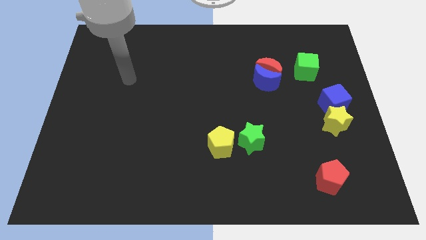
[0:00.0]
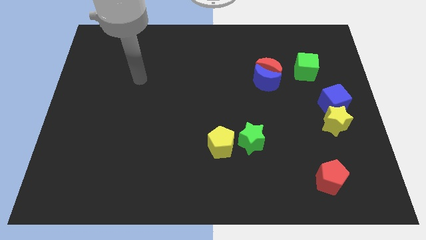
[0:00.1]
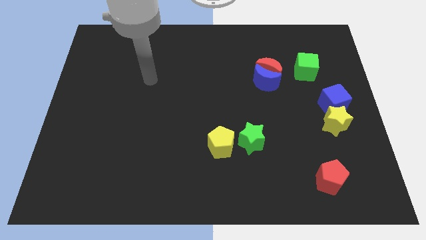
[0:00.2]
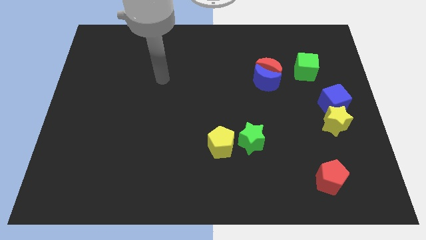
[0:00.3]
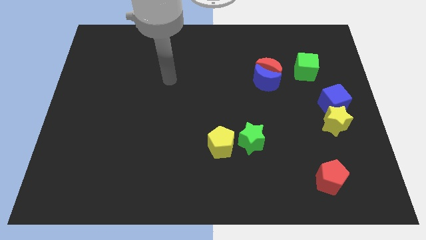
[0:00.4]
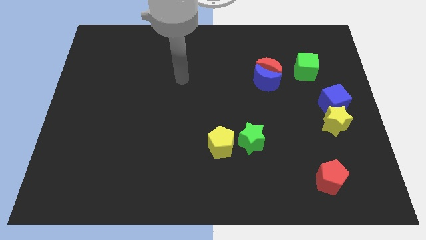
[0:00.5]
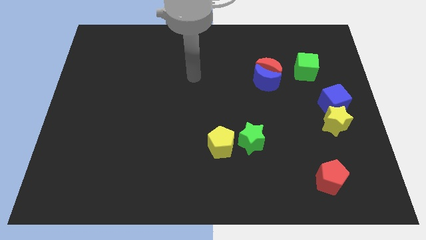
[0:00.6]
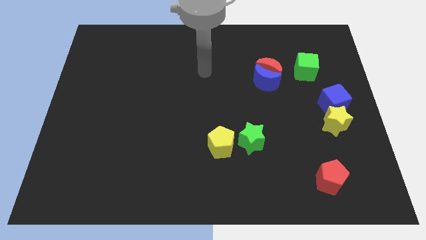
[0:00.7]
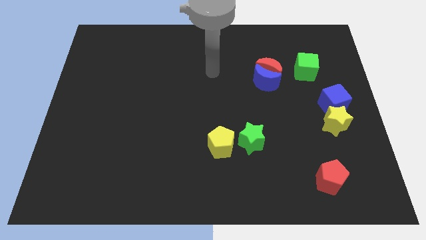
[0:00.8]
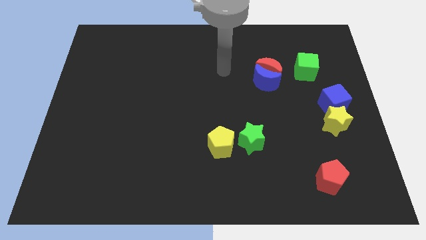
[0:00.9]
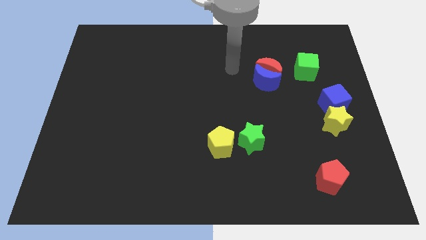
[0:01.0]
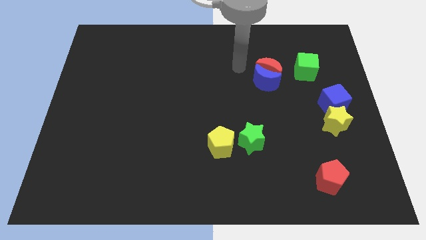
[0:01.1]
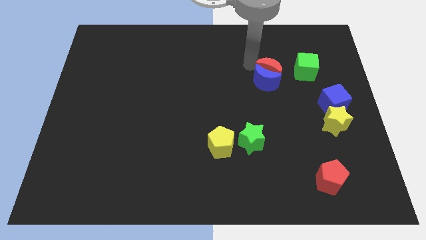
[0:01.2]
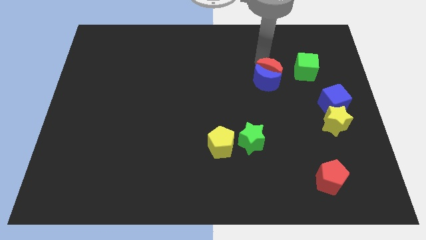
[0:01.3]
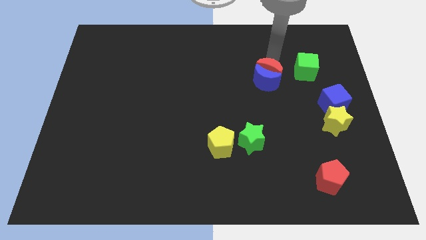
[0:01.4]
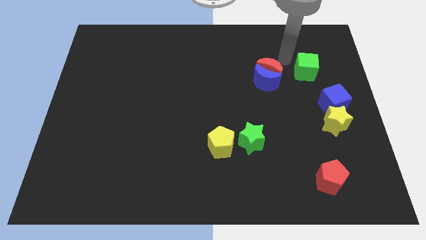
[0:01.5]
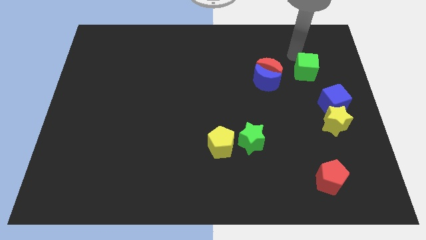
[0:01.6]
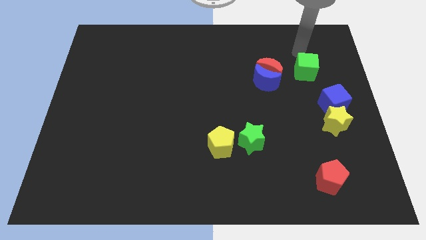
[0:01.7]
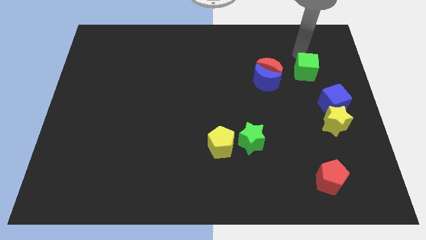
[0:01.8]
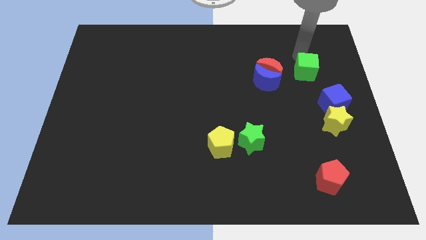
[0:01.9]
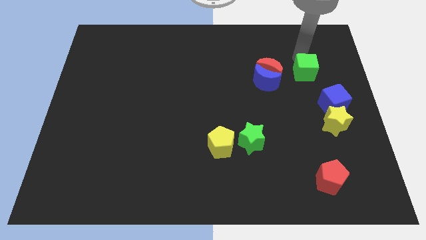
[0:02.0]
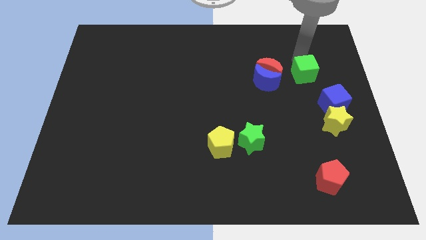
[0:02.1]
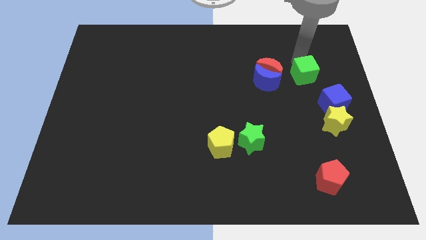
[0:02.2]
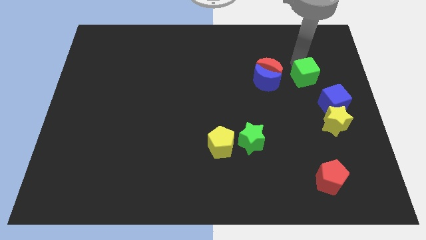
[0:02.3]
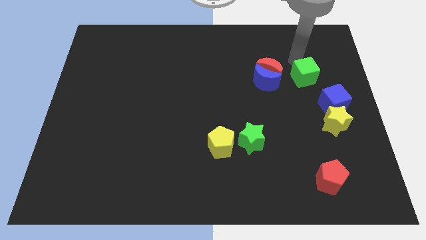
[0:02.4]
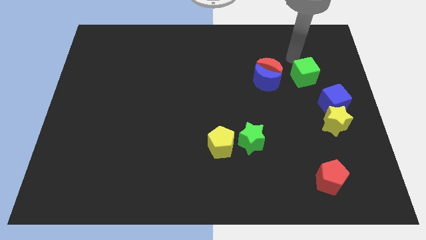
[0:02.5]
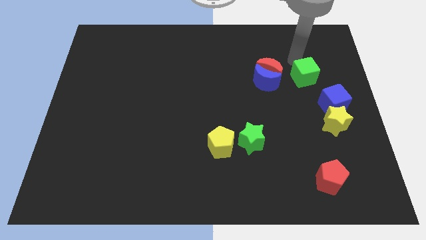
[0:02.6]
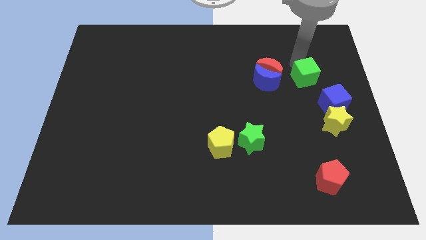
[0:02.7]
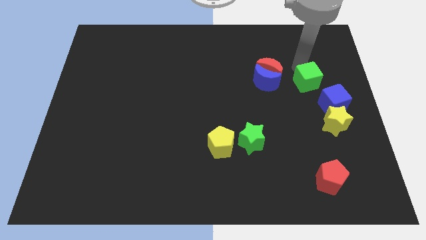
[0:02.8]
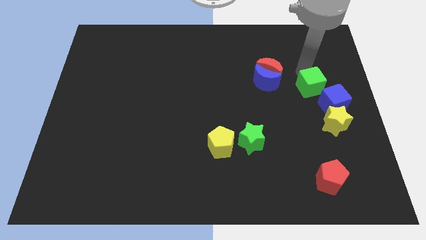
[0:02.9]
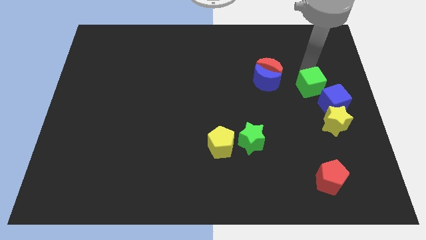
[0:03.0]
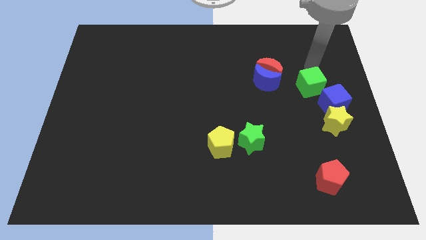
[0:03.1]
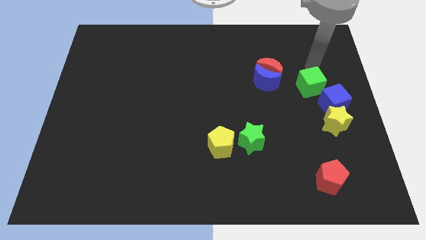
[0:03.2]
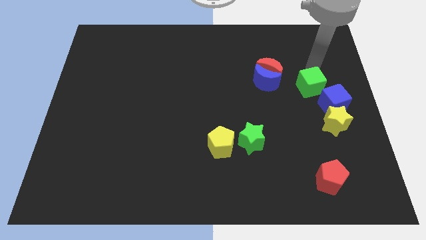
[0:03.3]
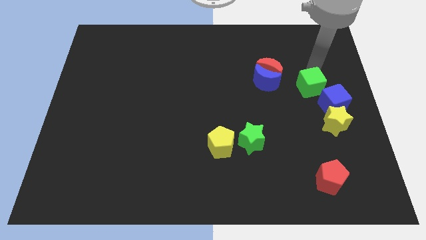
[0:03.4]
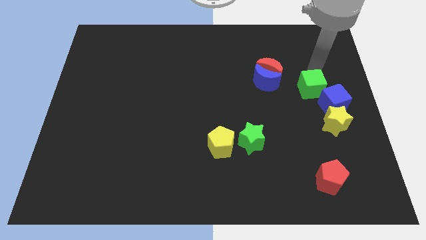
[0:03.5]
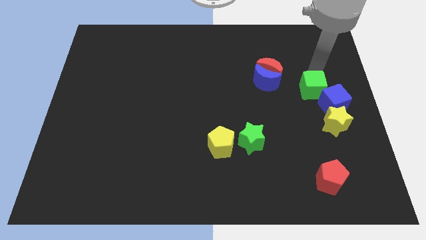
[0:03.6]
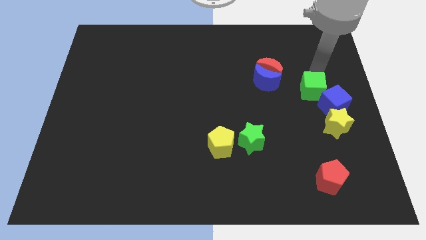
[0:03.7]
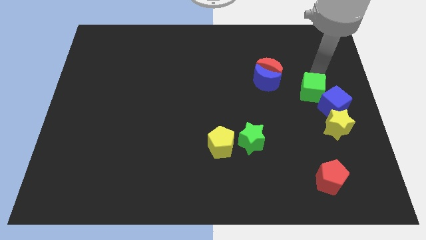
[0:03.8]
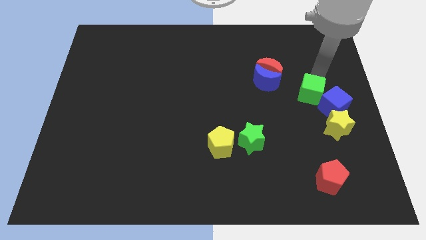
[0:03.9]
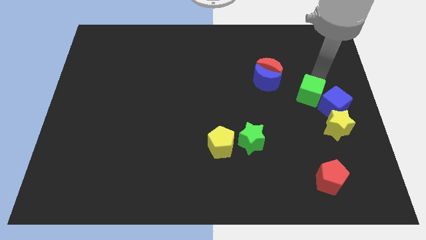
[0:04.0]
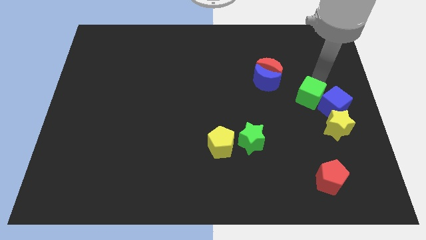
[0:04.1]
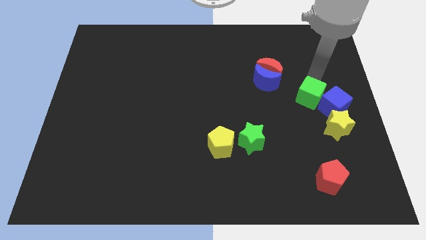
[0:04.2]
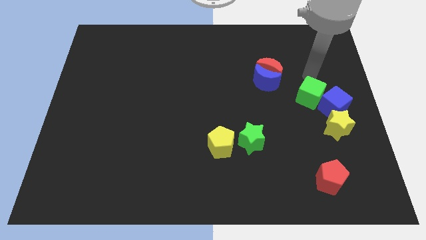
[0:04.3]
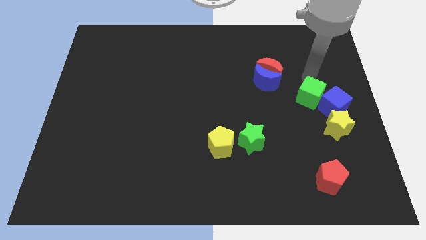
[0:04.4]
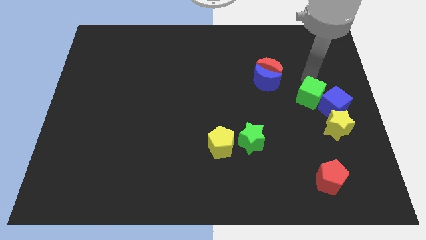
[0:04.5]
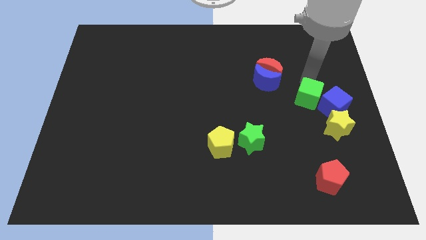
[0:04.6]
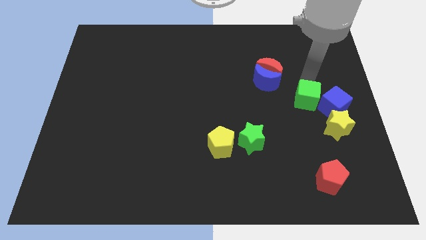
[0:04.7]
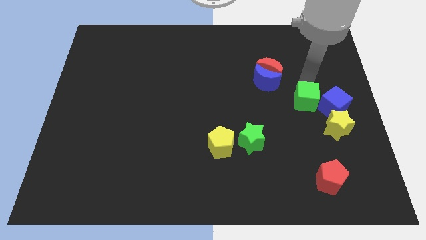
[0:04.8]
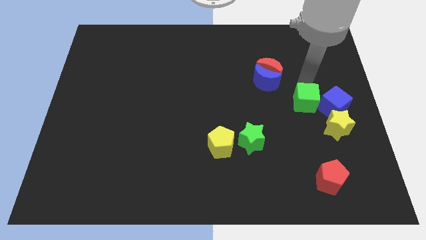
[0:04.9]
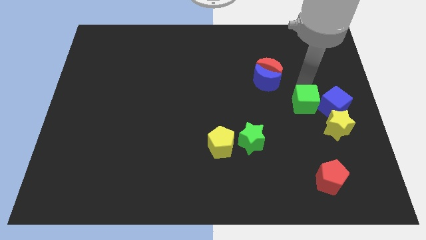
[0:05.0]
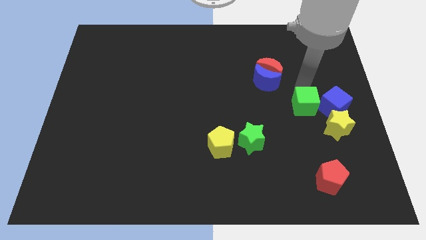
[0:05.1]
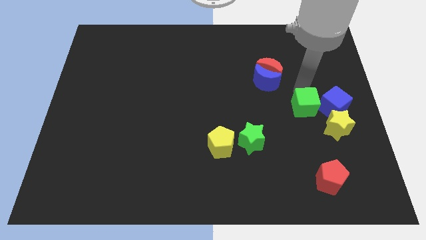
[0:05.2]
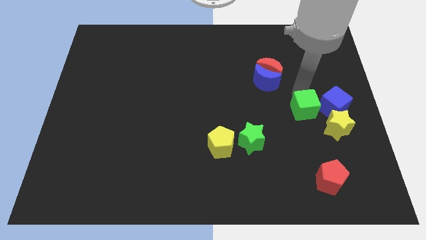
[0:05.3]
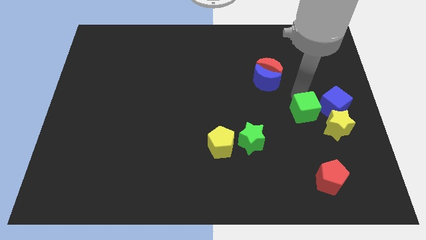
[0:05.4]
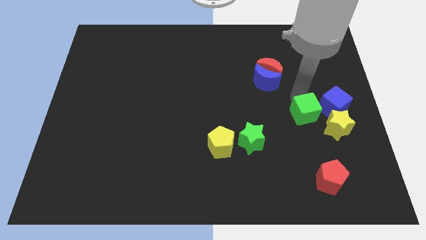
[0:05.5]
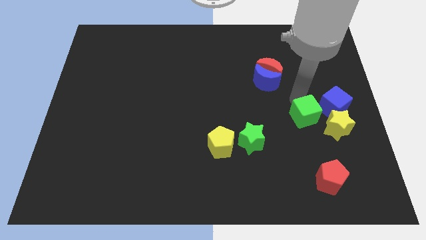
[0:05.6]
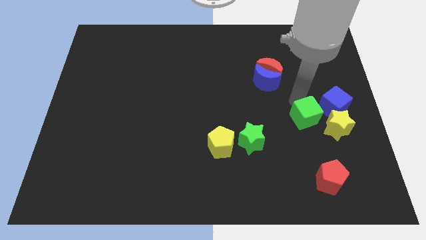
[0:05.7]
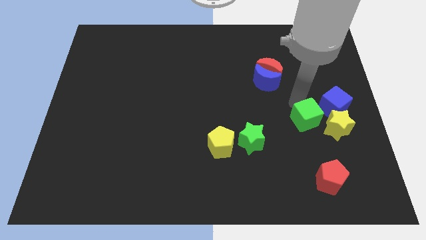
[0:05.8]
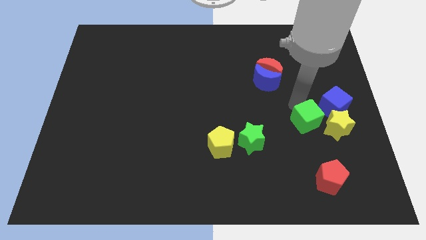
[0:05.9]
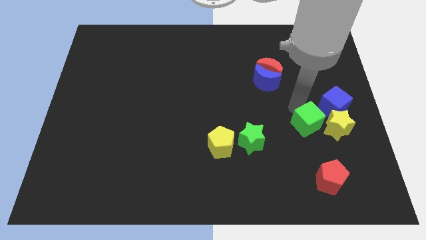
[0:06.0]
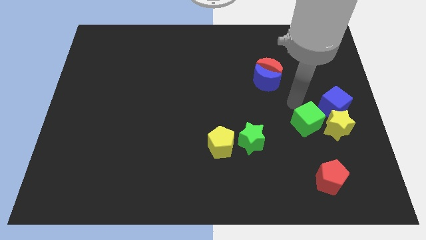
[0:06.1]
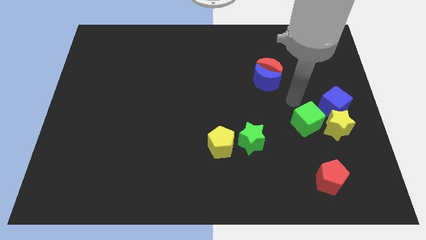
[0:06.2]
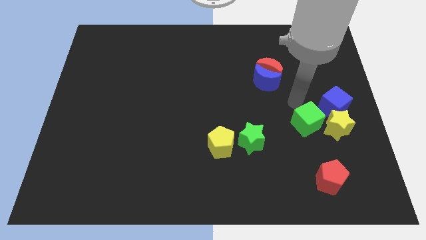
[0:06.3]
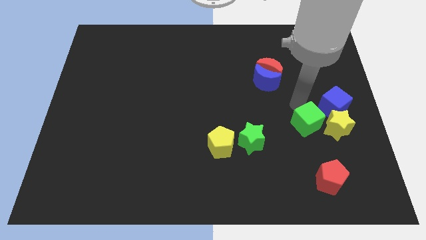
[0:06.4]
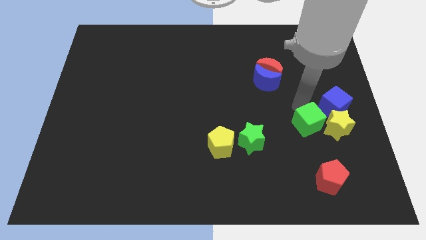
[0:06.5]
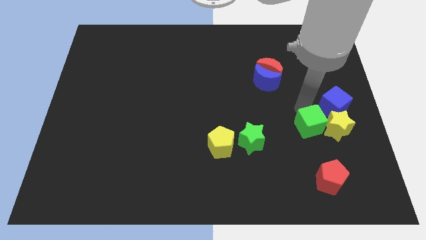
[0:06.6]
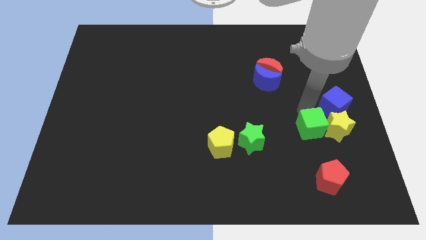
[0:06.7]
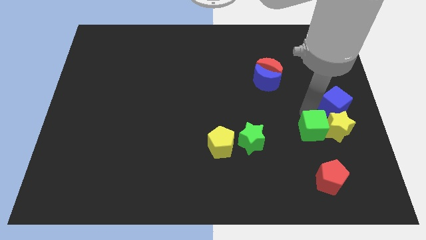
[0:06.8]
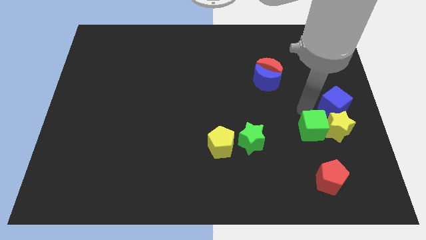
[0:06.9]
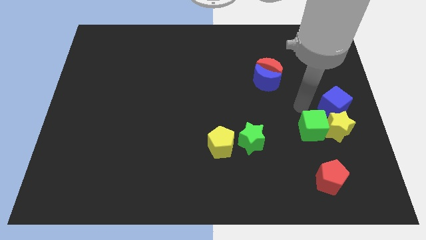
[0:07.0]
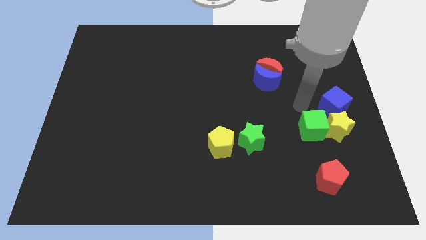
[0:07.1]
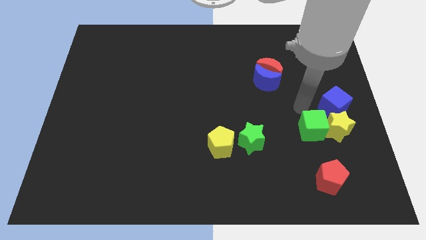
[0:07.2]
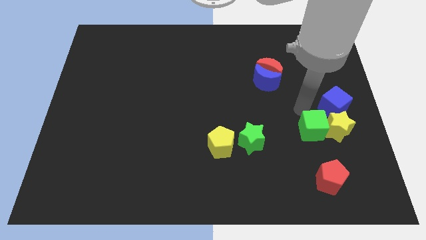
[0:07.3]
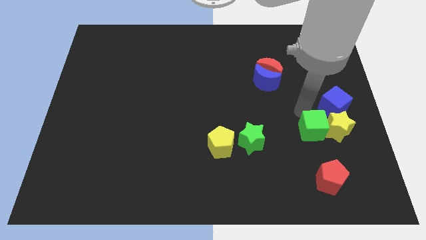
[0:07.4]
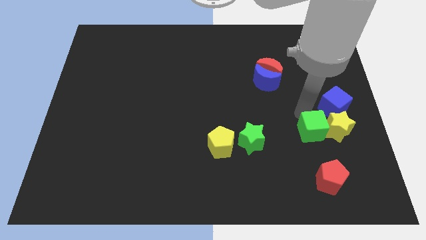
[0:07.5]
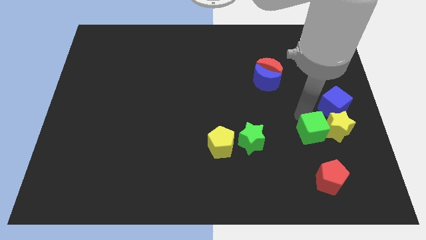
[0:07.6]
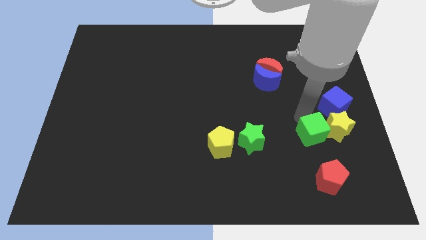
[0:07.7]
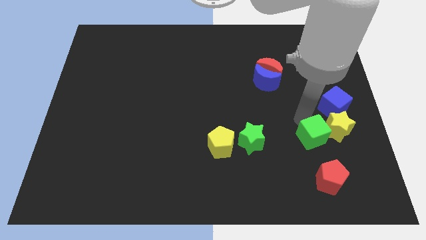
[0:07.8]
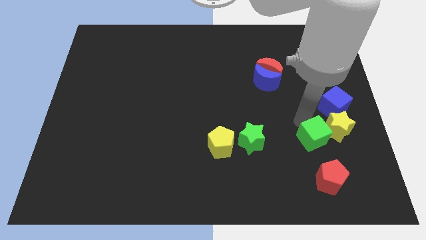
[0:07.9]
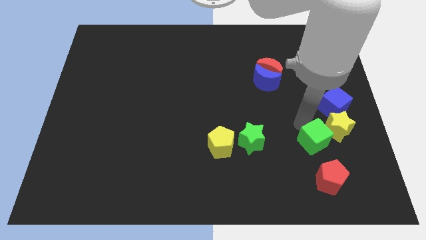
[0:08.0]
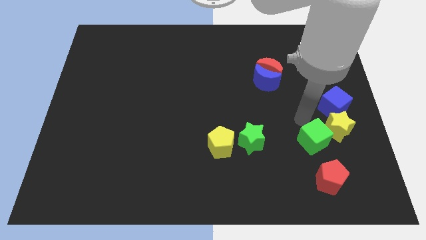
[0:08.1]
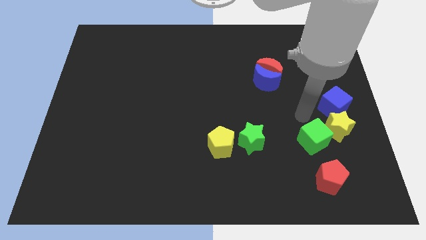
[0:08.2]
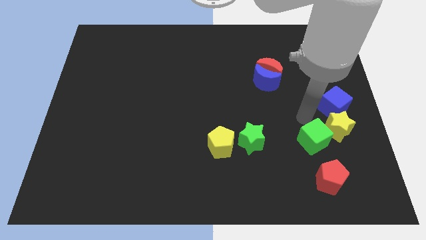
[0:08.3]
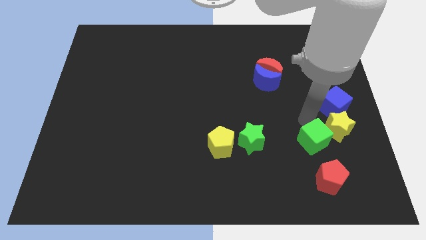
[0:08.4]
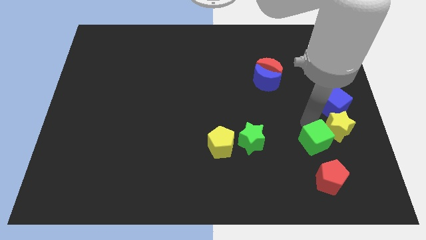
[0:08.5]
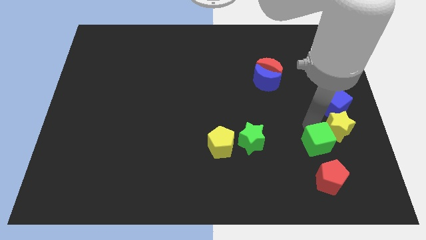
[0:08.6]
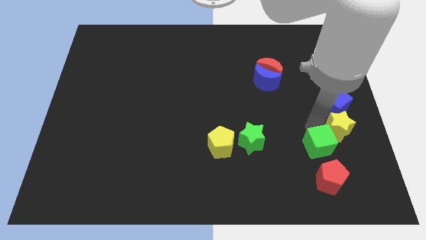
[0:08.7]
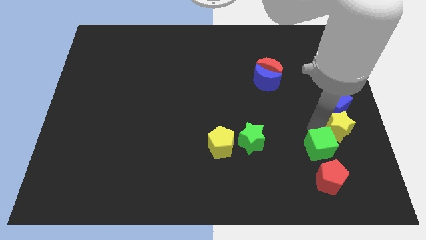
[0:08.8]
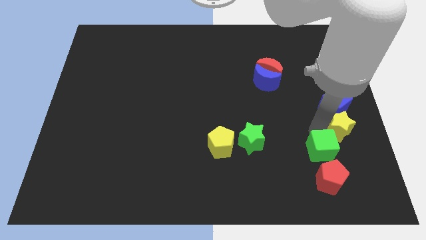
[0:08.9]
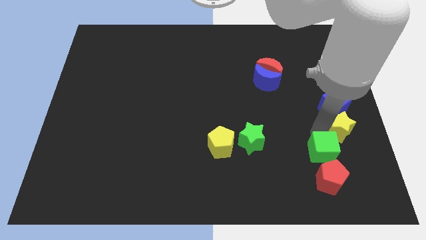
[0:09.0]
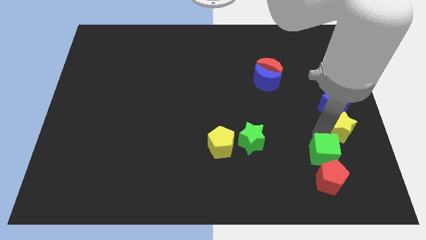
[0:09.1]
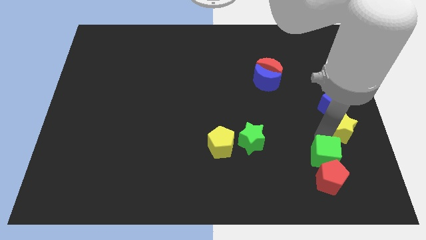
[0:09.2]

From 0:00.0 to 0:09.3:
put the green cube close to the red pentagon
